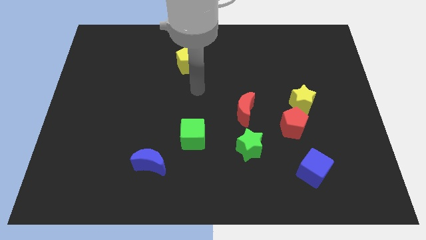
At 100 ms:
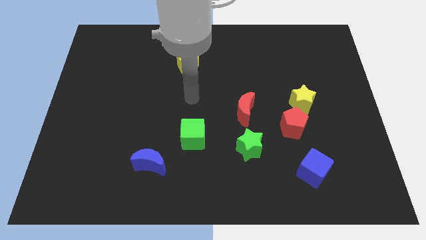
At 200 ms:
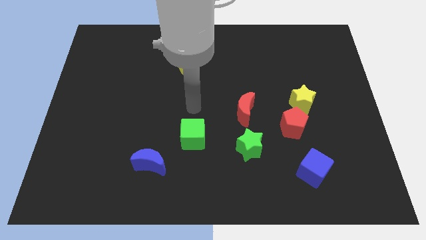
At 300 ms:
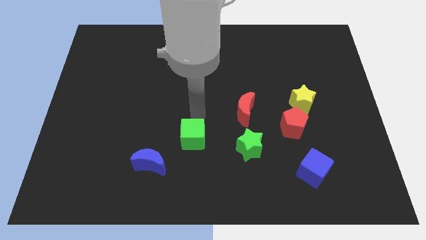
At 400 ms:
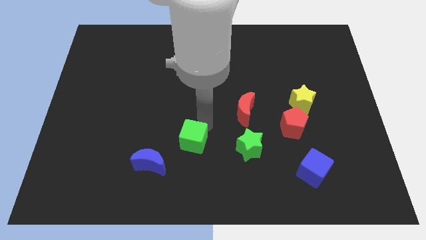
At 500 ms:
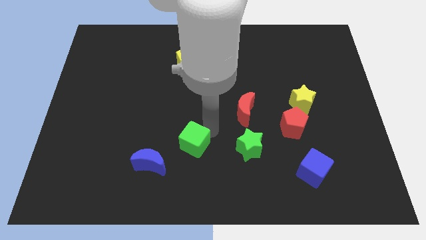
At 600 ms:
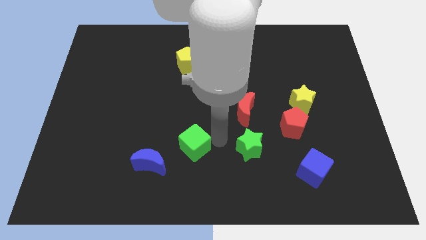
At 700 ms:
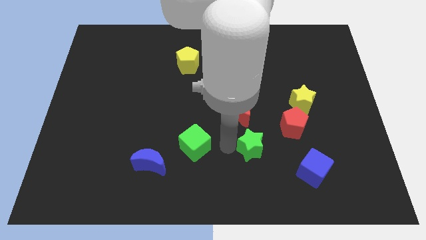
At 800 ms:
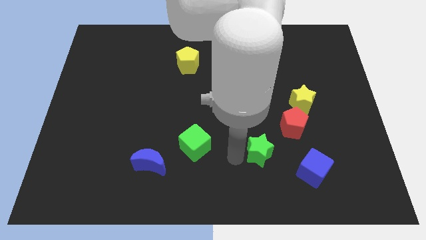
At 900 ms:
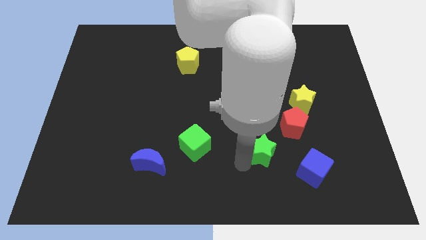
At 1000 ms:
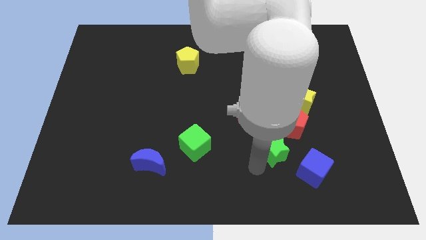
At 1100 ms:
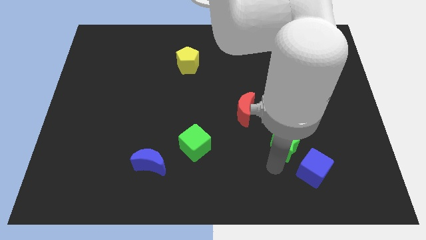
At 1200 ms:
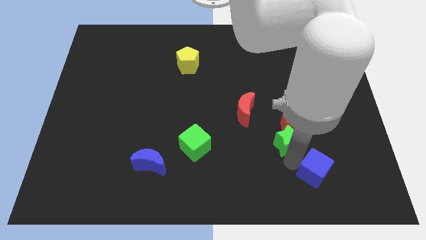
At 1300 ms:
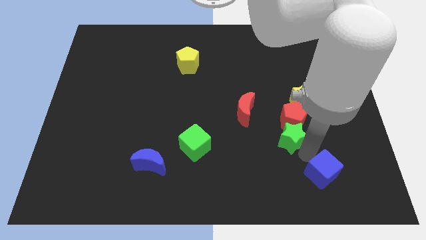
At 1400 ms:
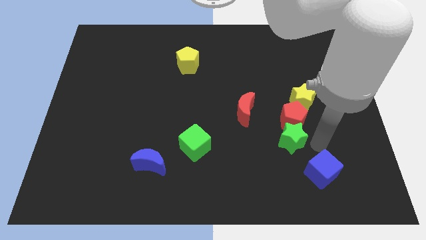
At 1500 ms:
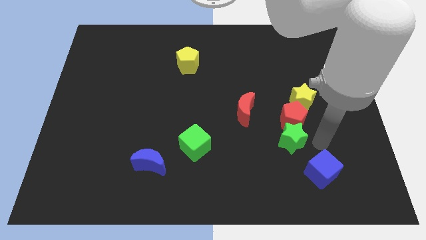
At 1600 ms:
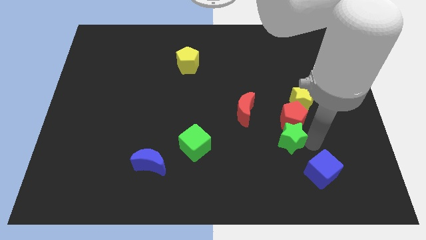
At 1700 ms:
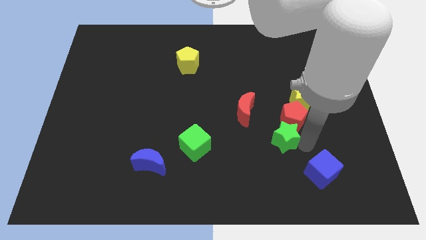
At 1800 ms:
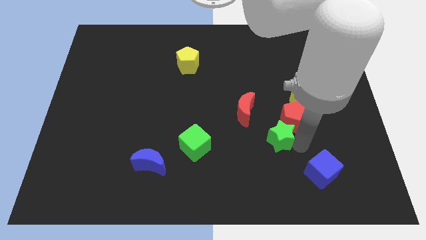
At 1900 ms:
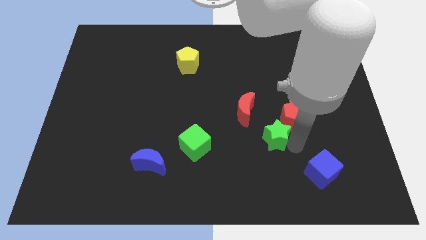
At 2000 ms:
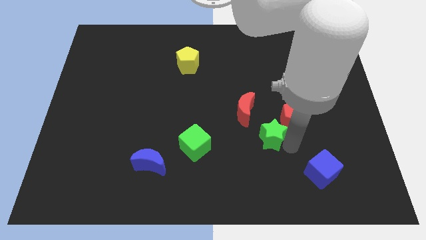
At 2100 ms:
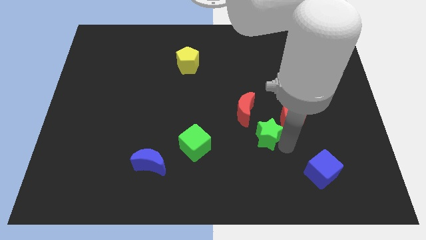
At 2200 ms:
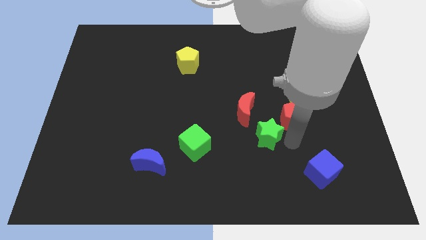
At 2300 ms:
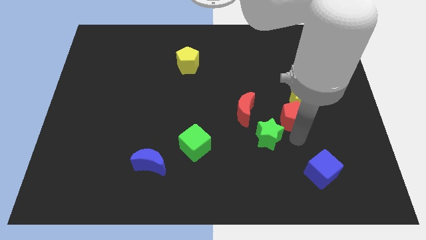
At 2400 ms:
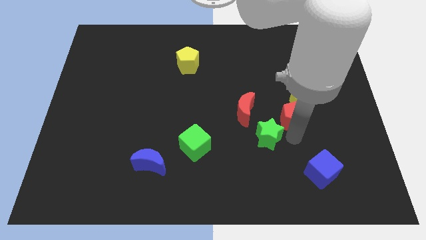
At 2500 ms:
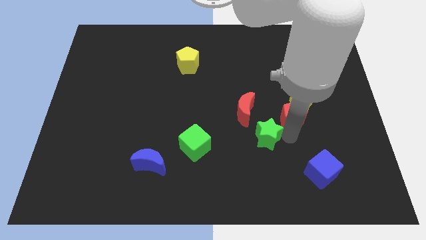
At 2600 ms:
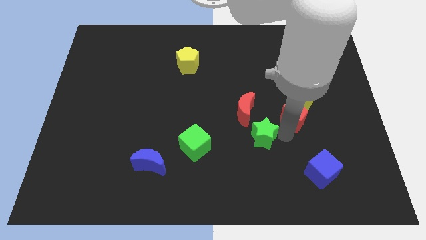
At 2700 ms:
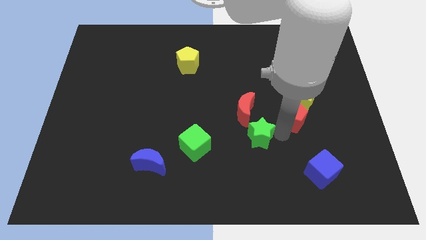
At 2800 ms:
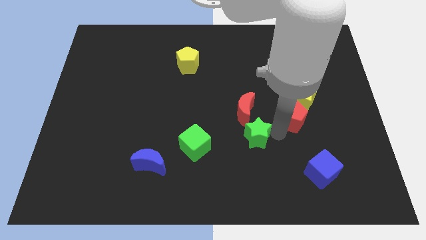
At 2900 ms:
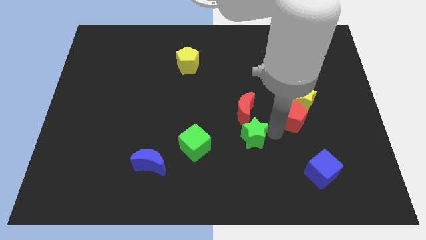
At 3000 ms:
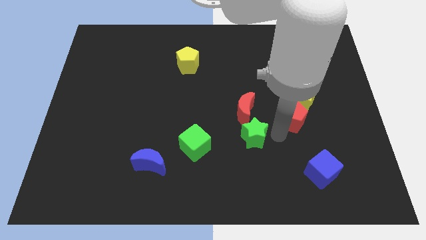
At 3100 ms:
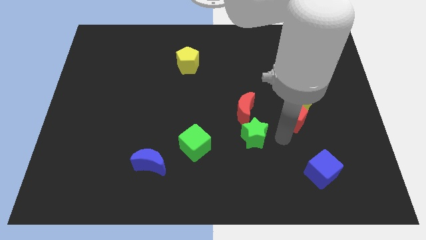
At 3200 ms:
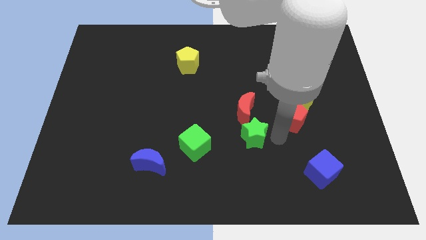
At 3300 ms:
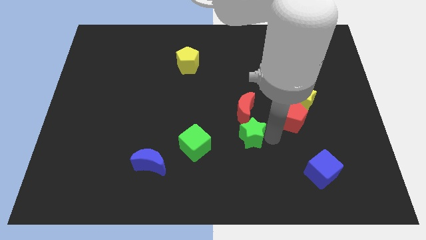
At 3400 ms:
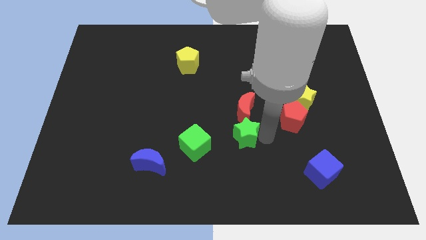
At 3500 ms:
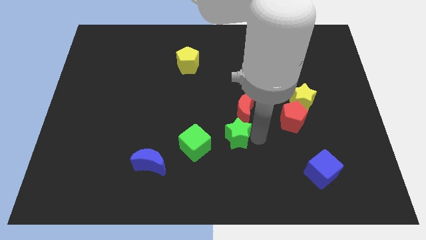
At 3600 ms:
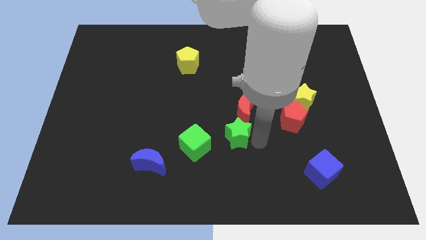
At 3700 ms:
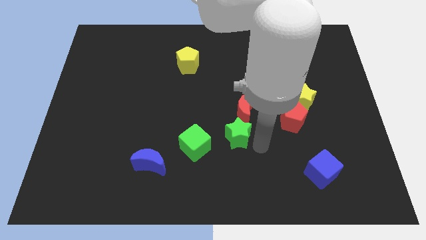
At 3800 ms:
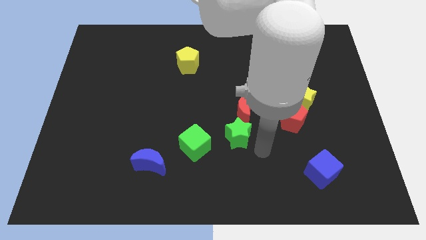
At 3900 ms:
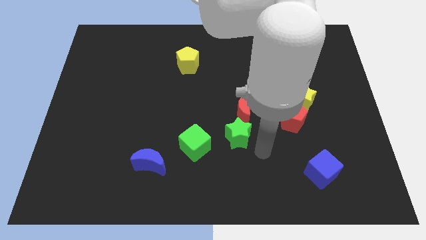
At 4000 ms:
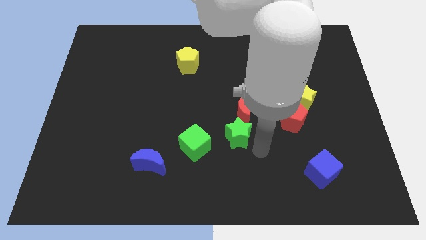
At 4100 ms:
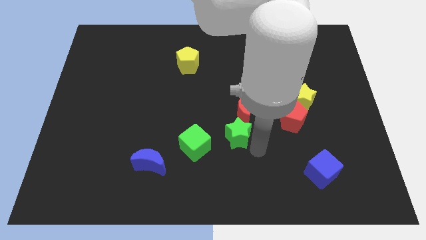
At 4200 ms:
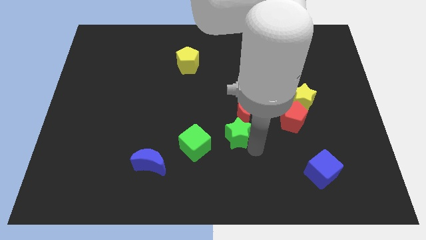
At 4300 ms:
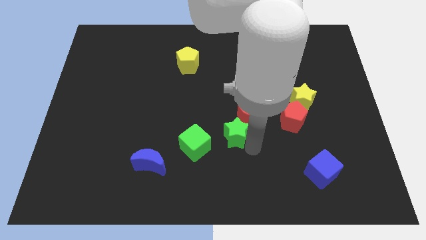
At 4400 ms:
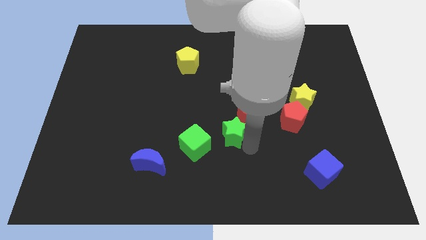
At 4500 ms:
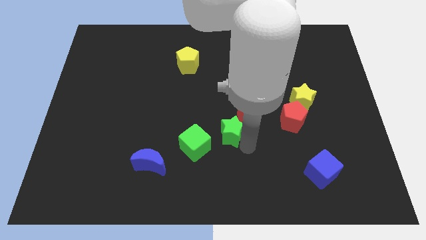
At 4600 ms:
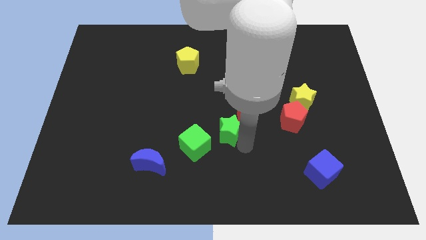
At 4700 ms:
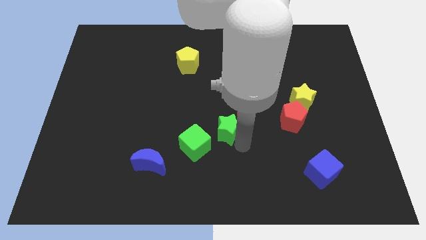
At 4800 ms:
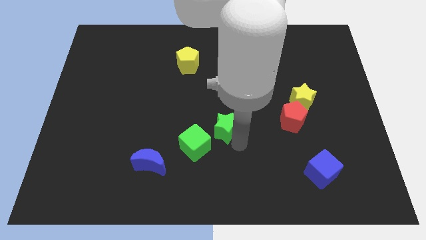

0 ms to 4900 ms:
slightly move the green star upwards and left diagonally

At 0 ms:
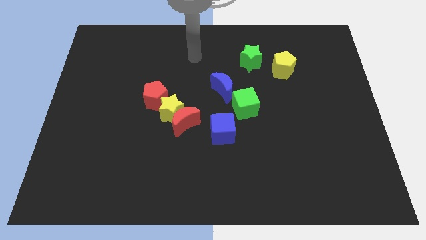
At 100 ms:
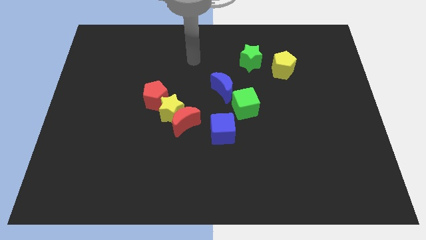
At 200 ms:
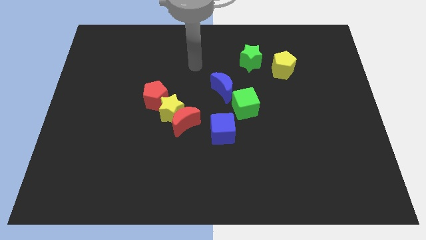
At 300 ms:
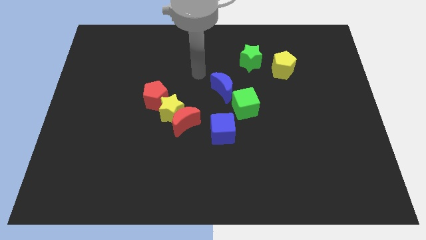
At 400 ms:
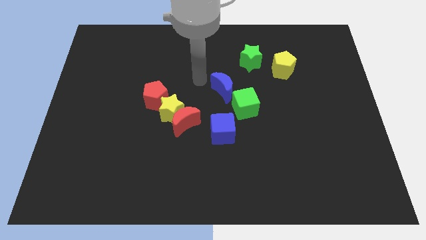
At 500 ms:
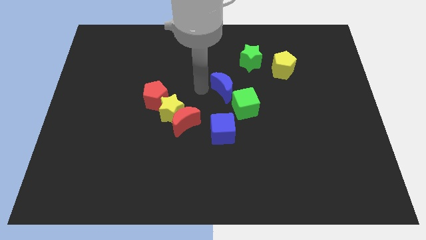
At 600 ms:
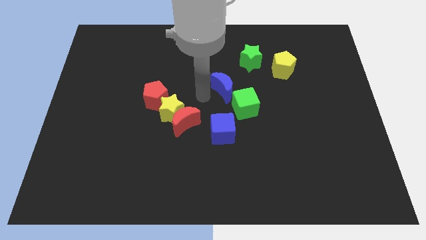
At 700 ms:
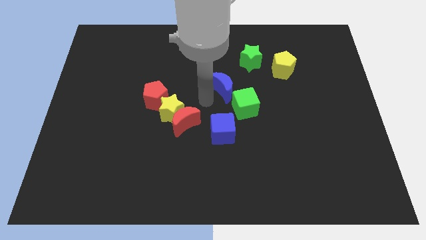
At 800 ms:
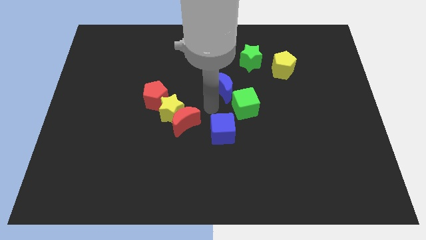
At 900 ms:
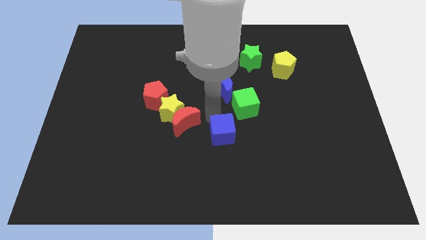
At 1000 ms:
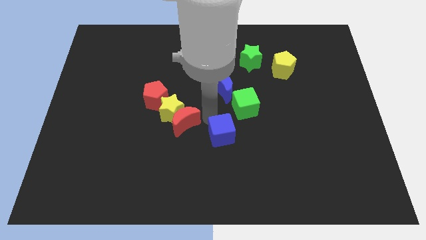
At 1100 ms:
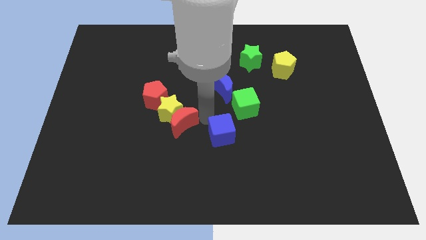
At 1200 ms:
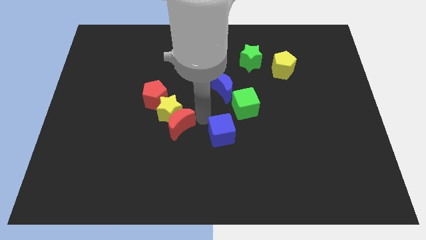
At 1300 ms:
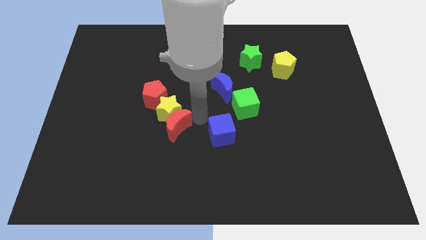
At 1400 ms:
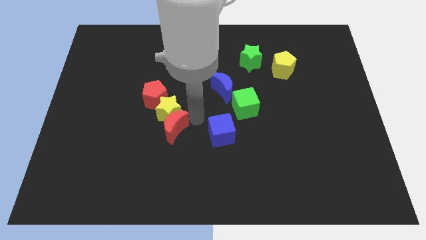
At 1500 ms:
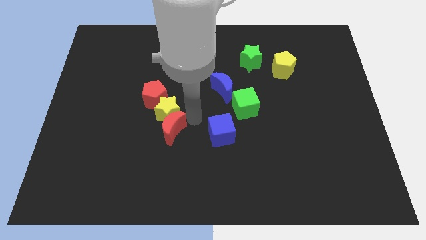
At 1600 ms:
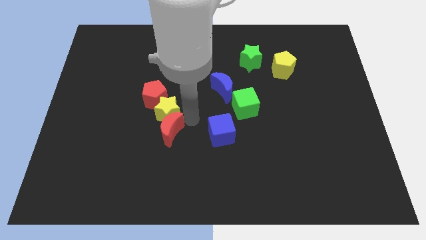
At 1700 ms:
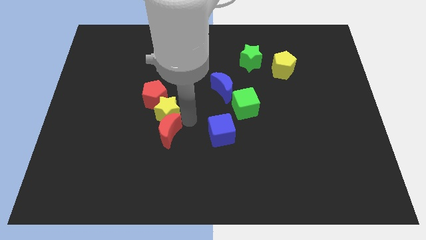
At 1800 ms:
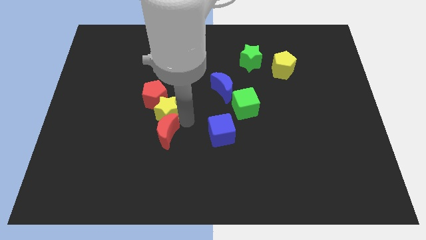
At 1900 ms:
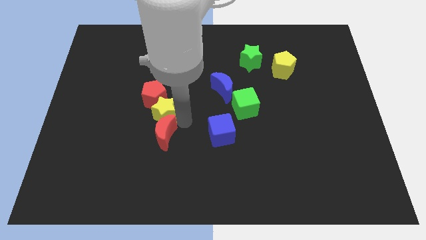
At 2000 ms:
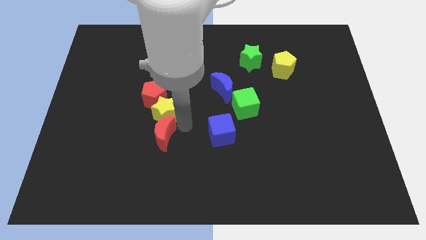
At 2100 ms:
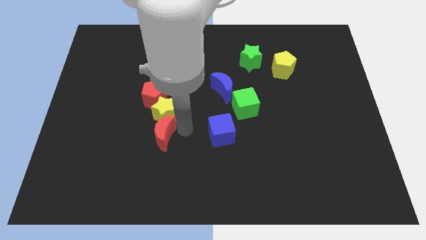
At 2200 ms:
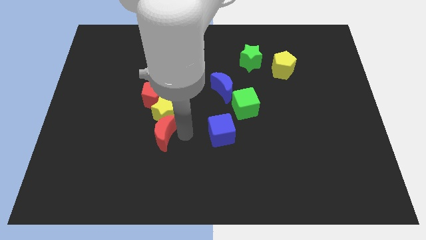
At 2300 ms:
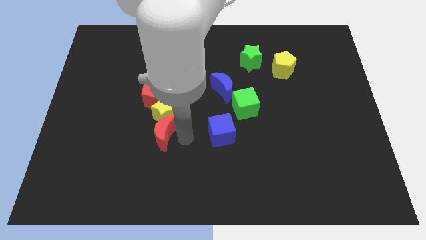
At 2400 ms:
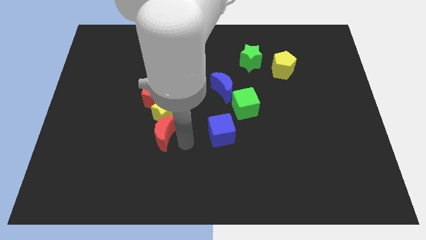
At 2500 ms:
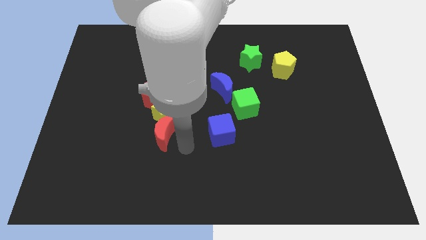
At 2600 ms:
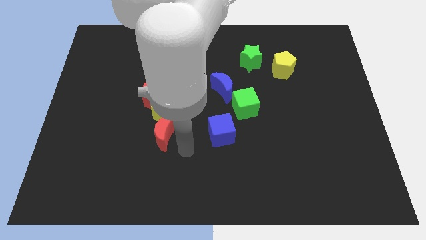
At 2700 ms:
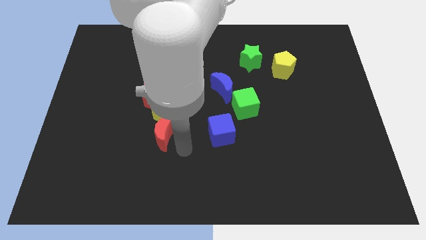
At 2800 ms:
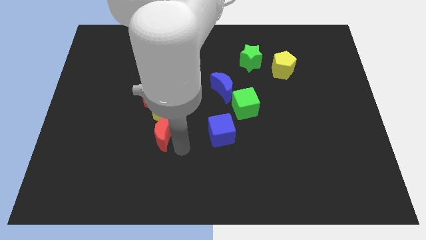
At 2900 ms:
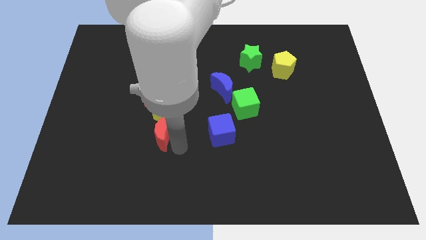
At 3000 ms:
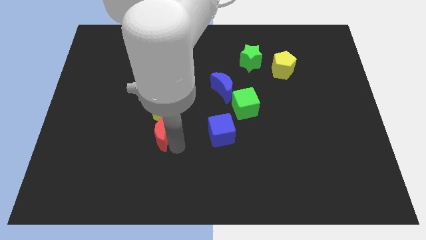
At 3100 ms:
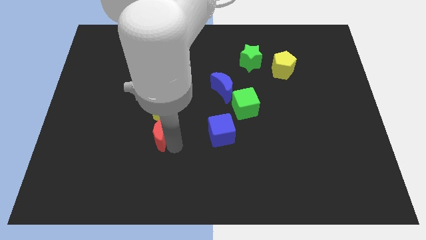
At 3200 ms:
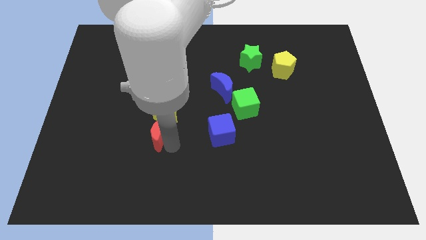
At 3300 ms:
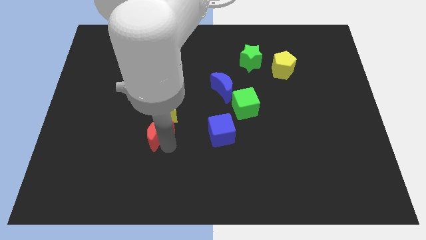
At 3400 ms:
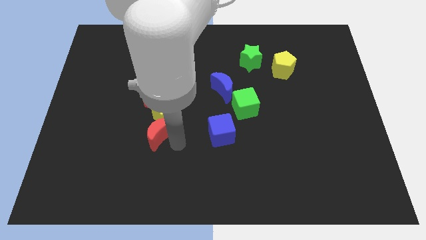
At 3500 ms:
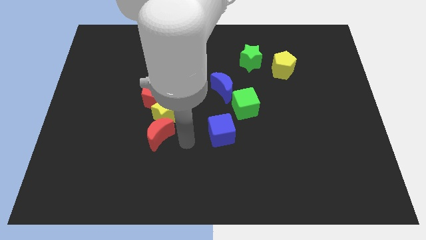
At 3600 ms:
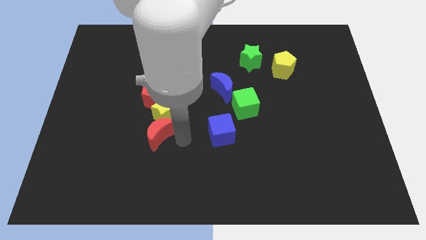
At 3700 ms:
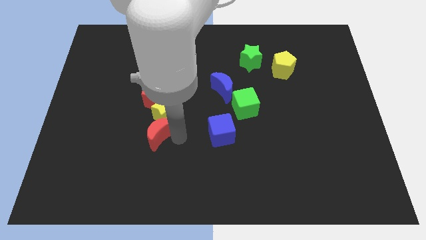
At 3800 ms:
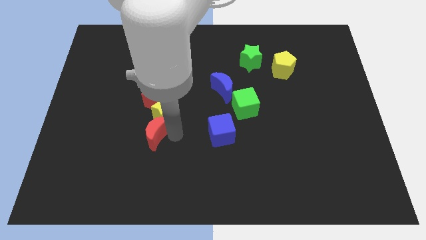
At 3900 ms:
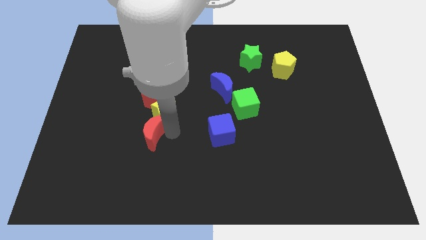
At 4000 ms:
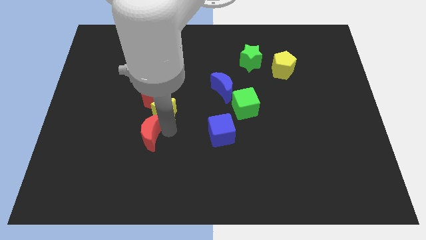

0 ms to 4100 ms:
slightly slide the red moon left
